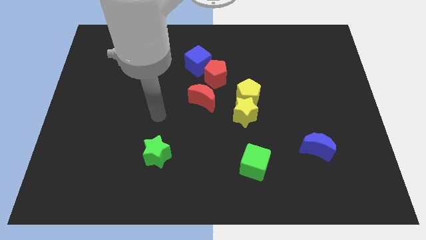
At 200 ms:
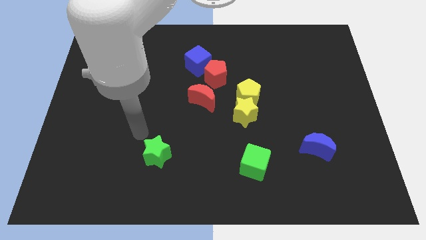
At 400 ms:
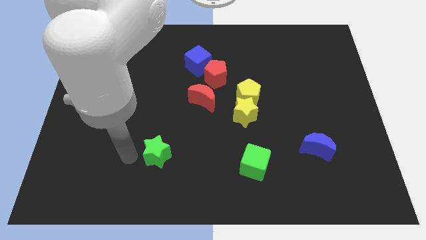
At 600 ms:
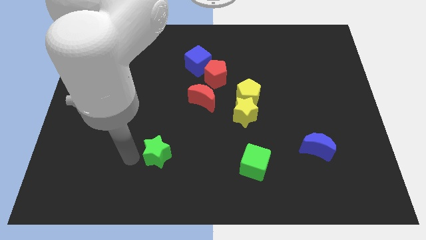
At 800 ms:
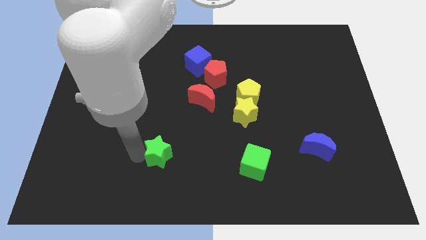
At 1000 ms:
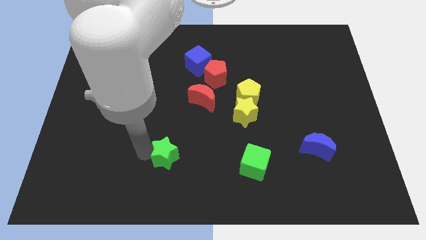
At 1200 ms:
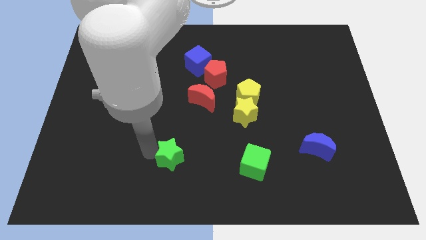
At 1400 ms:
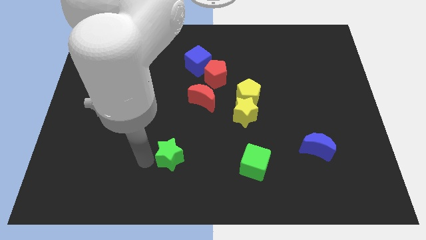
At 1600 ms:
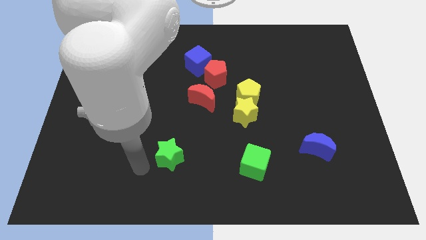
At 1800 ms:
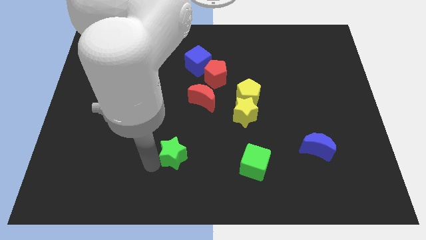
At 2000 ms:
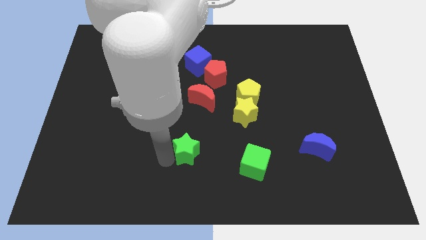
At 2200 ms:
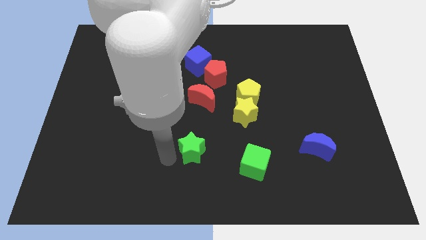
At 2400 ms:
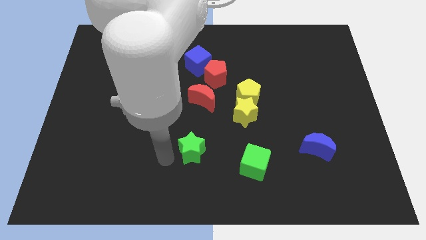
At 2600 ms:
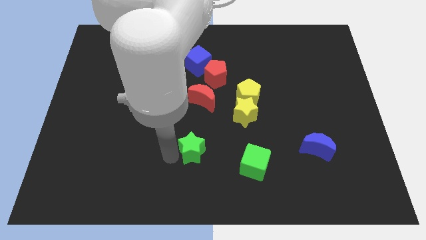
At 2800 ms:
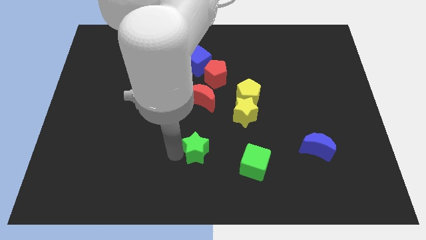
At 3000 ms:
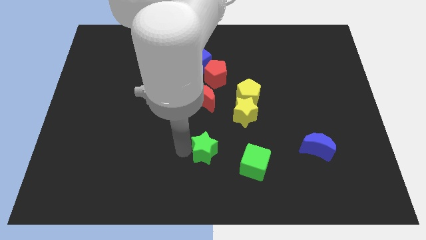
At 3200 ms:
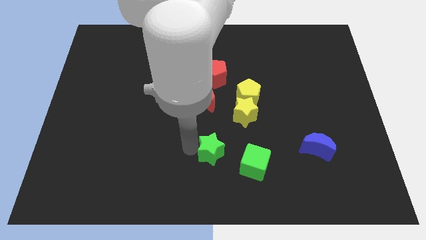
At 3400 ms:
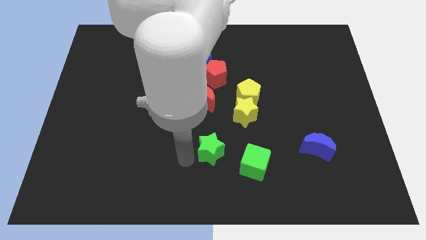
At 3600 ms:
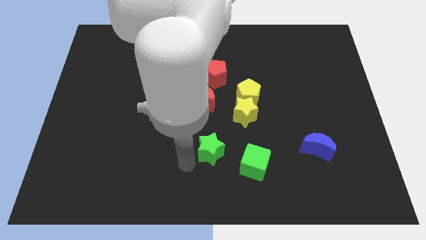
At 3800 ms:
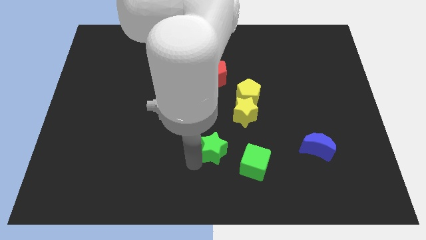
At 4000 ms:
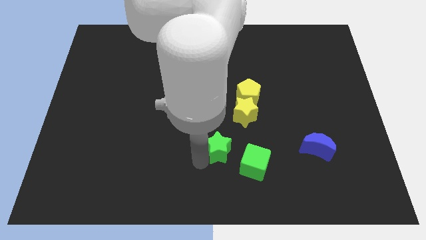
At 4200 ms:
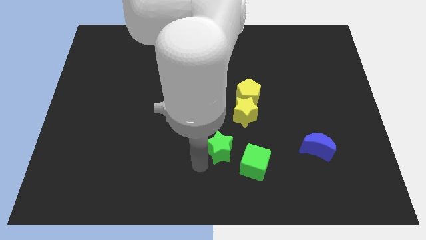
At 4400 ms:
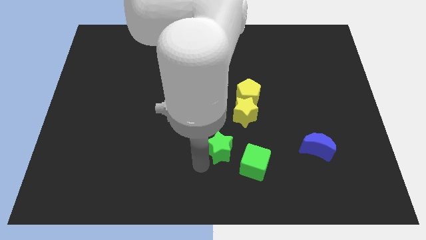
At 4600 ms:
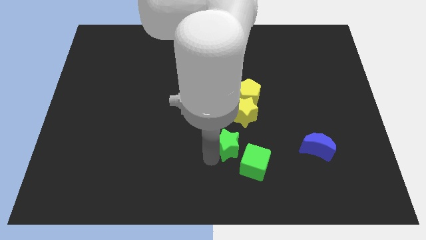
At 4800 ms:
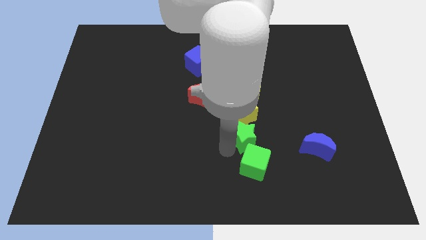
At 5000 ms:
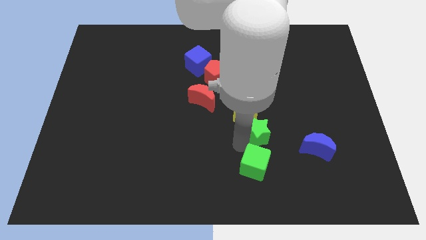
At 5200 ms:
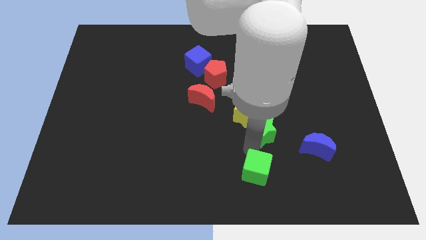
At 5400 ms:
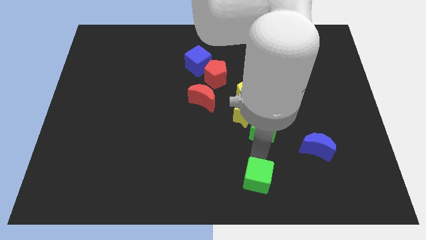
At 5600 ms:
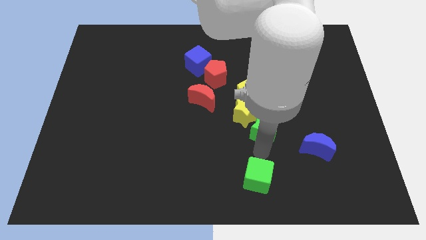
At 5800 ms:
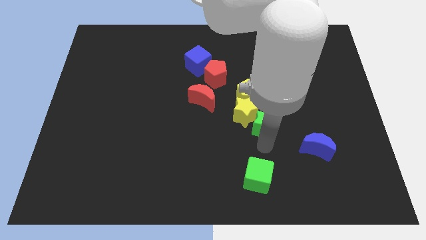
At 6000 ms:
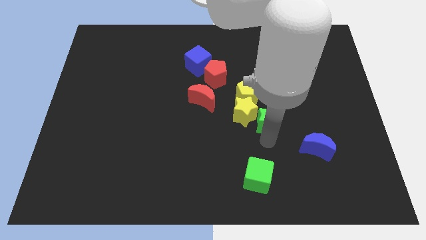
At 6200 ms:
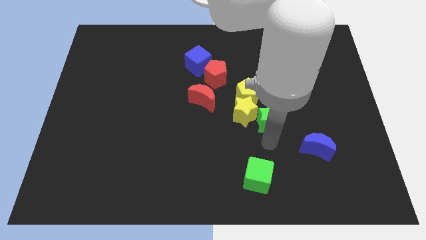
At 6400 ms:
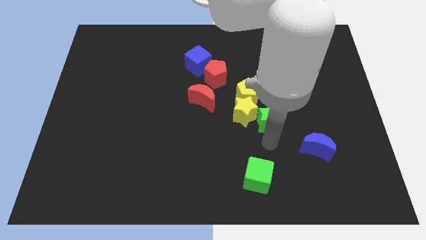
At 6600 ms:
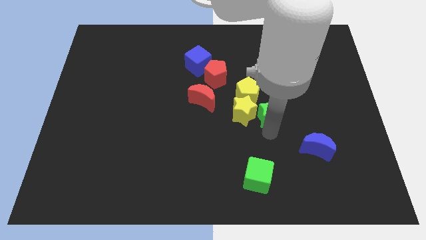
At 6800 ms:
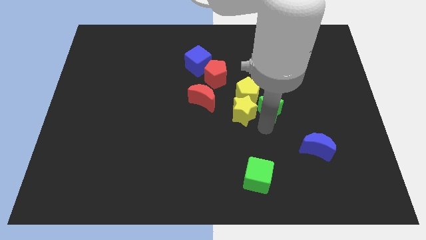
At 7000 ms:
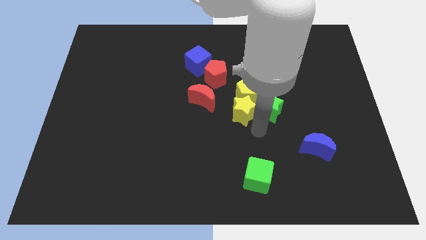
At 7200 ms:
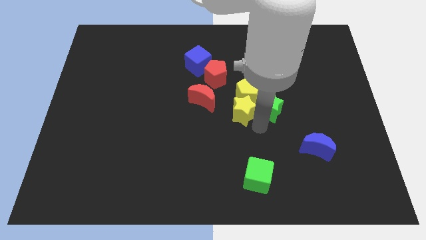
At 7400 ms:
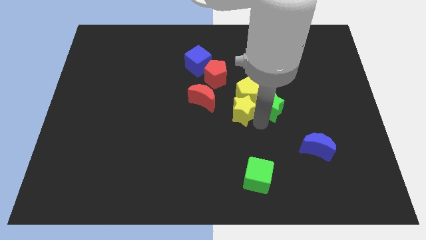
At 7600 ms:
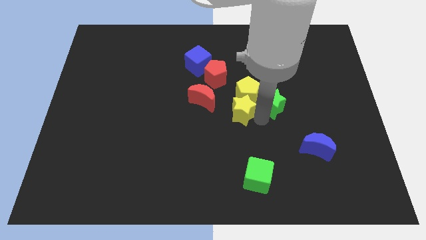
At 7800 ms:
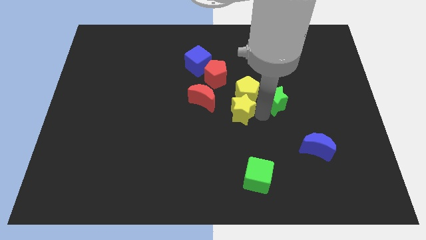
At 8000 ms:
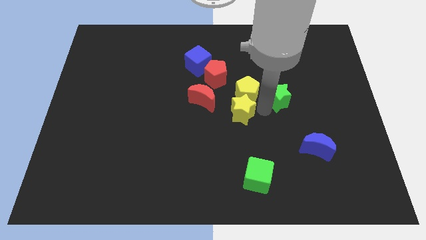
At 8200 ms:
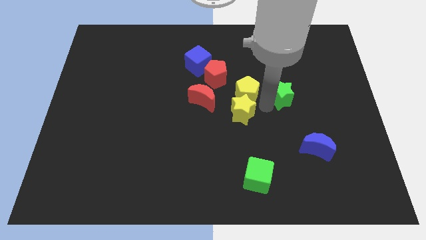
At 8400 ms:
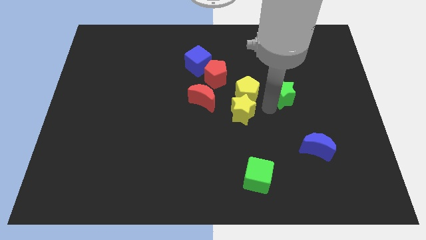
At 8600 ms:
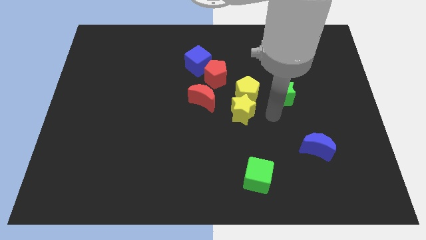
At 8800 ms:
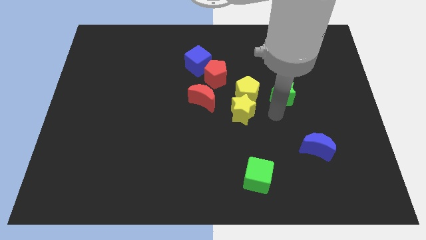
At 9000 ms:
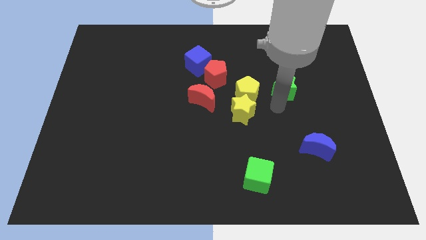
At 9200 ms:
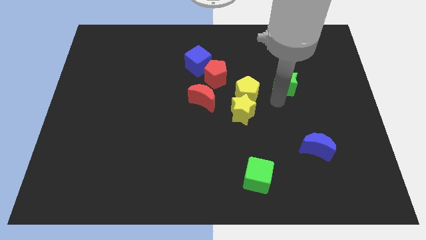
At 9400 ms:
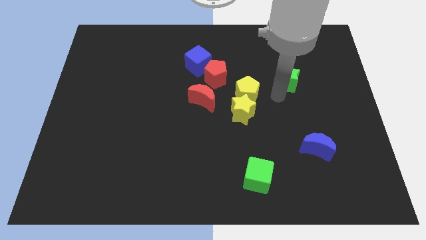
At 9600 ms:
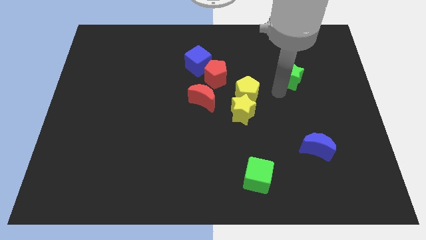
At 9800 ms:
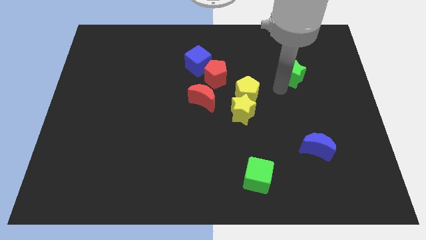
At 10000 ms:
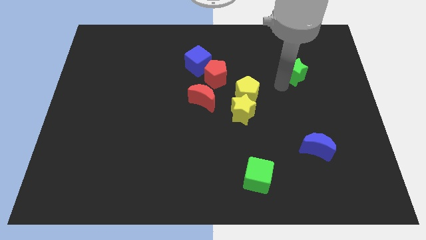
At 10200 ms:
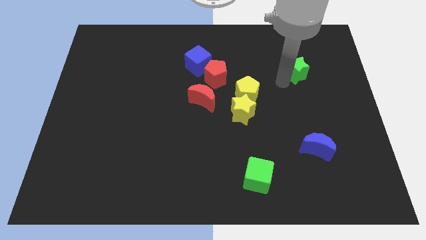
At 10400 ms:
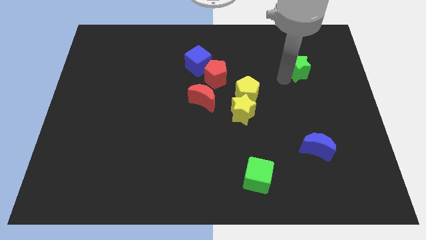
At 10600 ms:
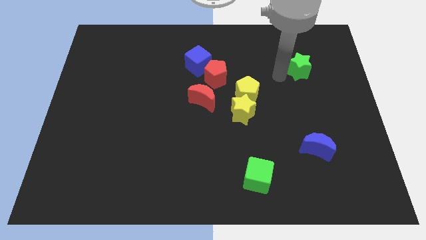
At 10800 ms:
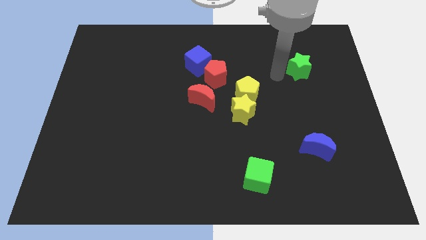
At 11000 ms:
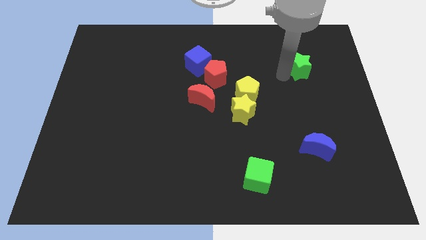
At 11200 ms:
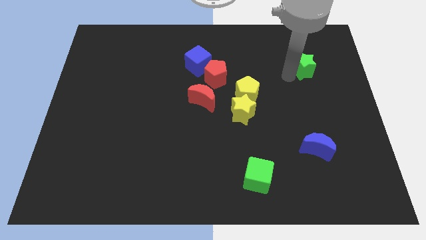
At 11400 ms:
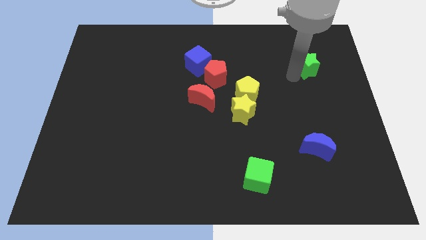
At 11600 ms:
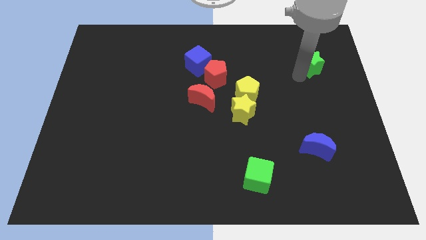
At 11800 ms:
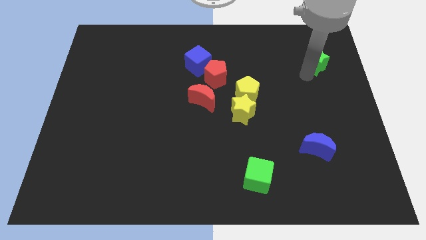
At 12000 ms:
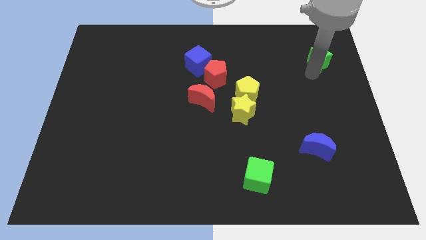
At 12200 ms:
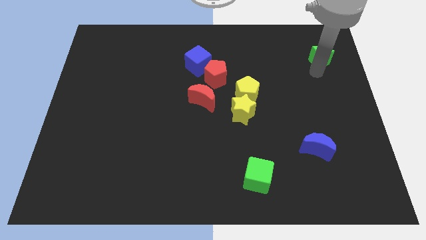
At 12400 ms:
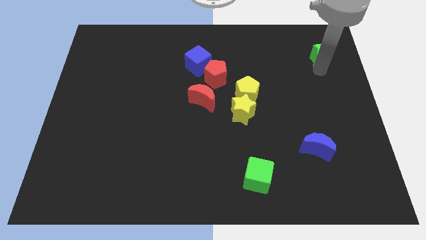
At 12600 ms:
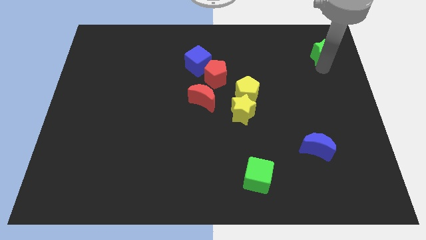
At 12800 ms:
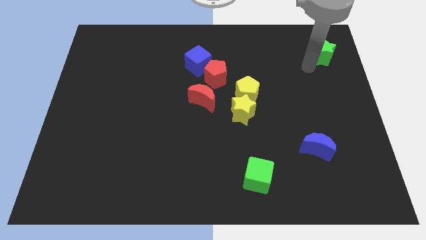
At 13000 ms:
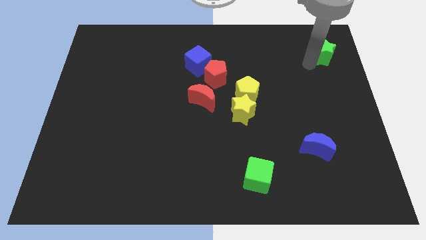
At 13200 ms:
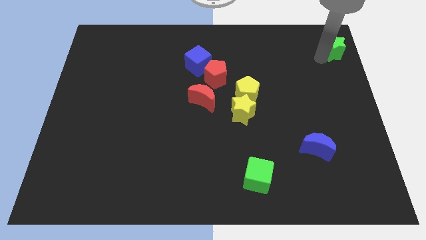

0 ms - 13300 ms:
push the green star to the top right of the board
